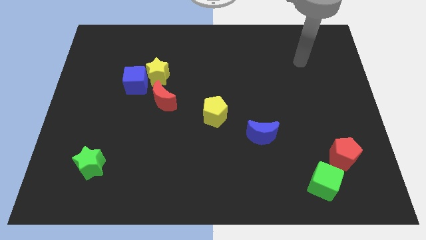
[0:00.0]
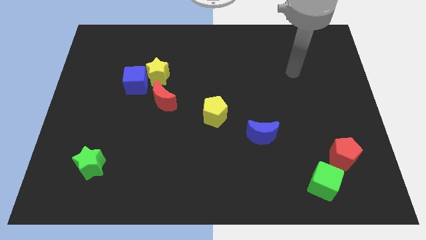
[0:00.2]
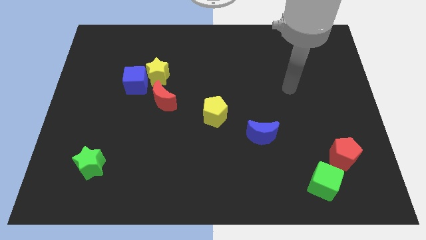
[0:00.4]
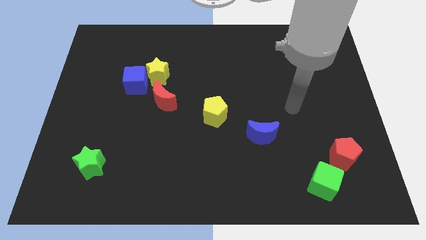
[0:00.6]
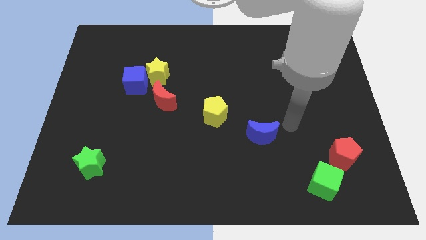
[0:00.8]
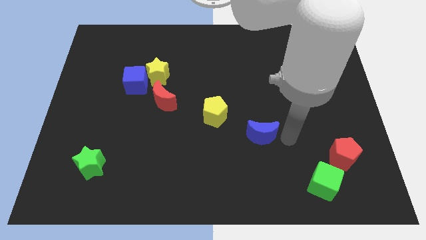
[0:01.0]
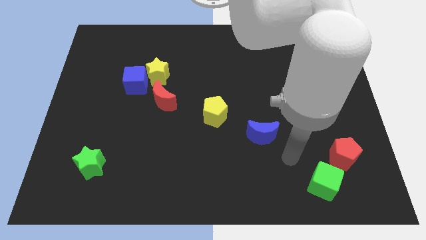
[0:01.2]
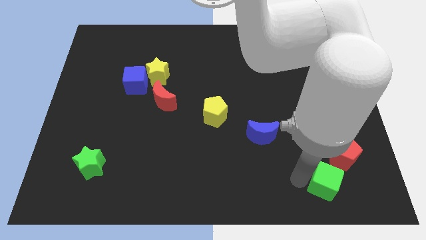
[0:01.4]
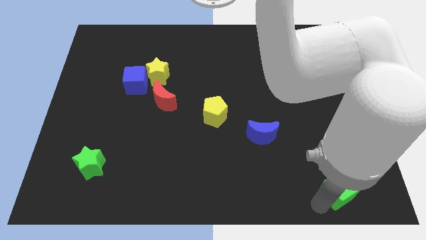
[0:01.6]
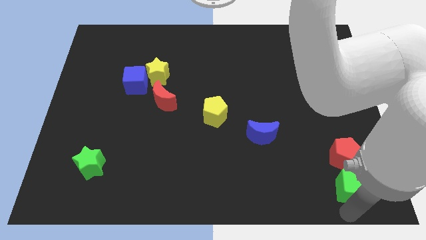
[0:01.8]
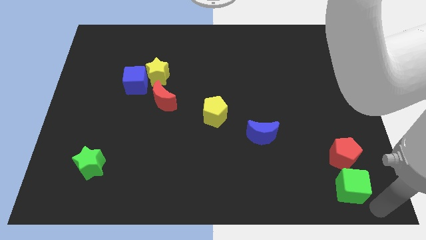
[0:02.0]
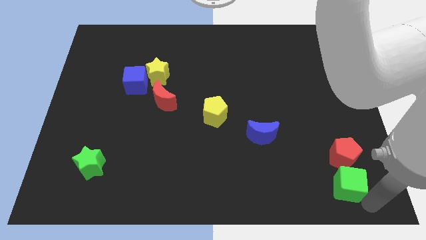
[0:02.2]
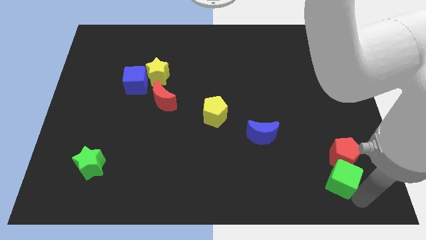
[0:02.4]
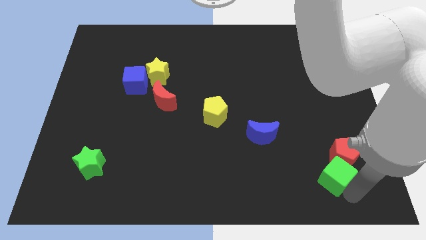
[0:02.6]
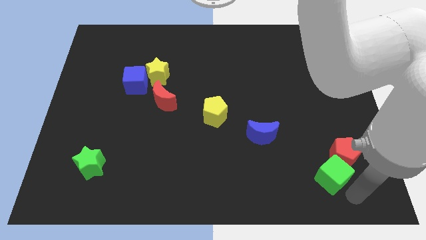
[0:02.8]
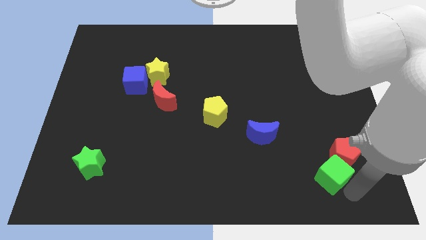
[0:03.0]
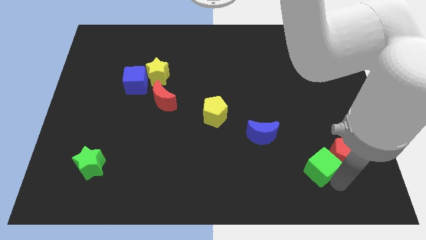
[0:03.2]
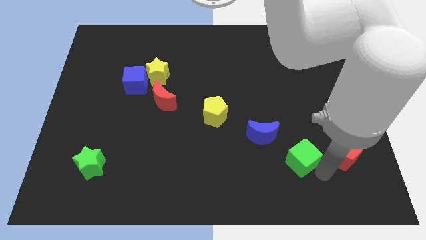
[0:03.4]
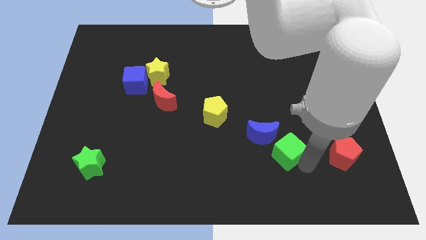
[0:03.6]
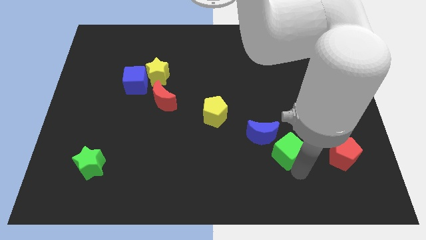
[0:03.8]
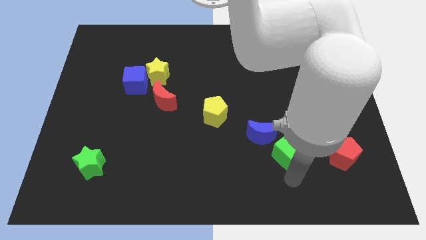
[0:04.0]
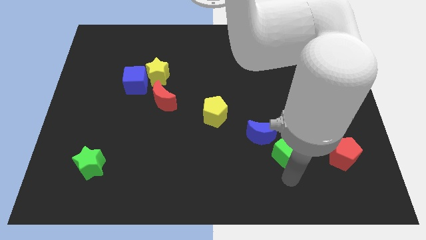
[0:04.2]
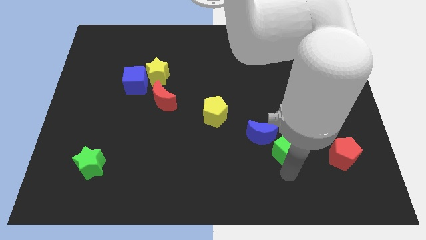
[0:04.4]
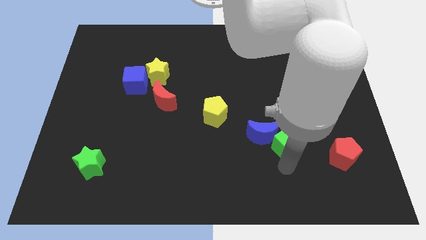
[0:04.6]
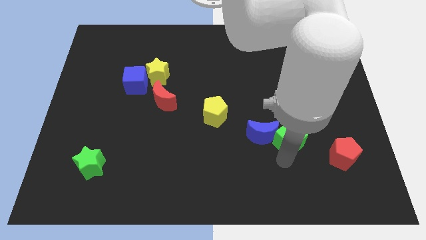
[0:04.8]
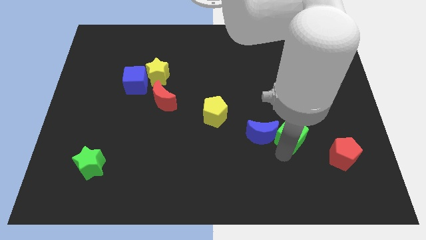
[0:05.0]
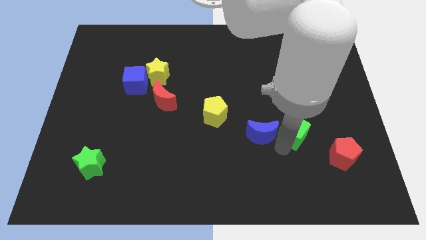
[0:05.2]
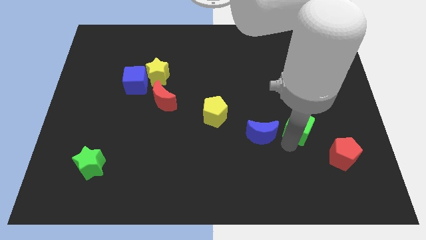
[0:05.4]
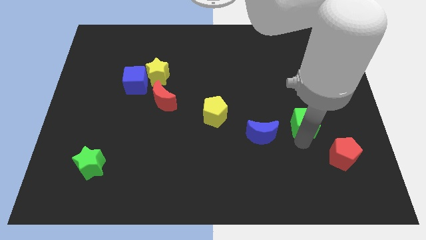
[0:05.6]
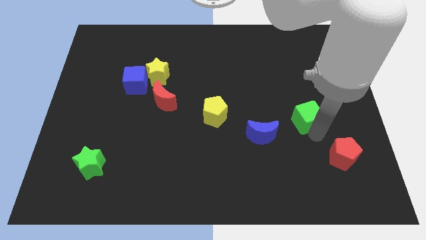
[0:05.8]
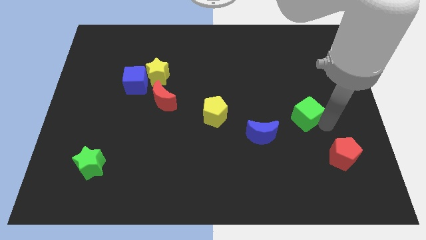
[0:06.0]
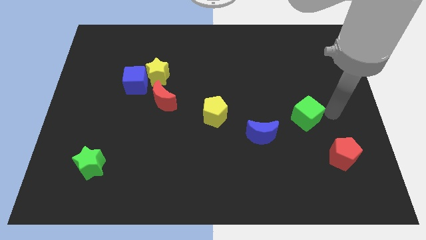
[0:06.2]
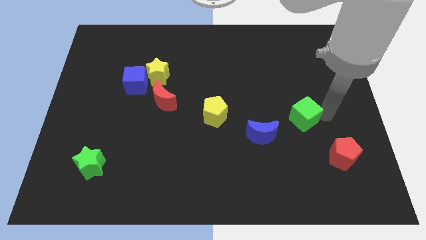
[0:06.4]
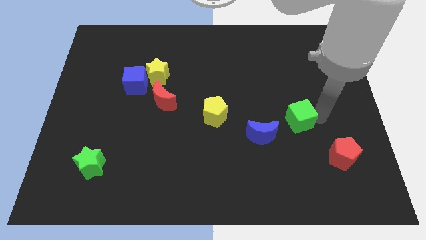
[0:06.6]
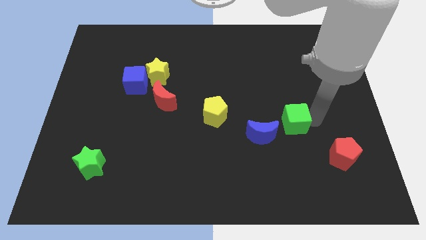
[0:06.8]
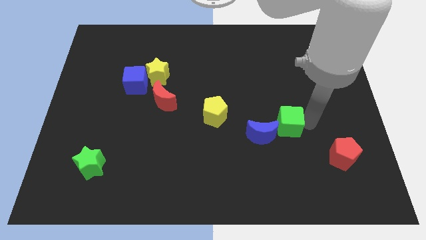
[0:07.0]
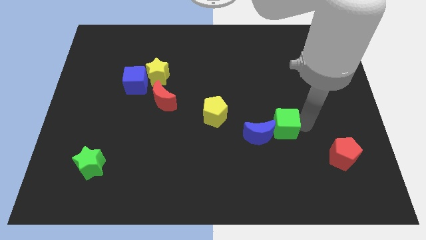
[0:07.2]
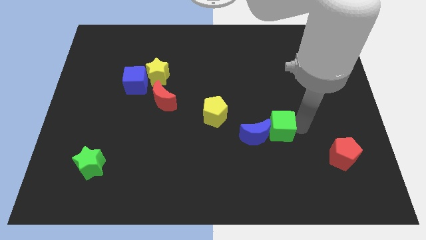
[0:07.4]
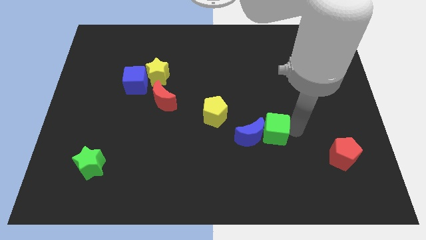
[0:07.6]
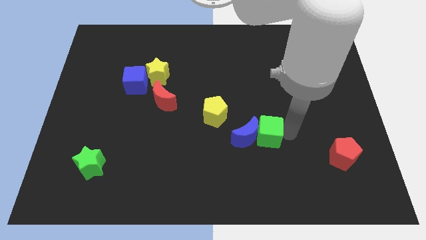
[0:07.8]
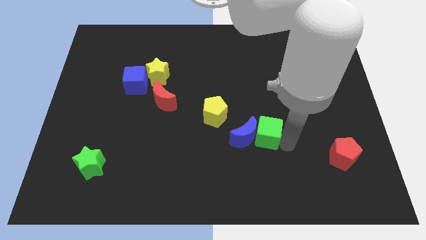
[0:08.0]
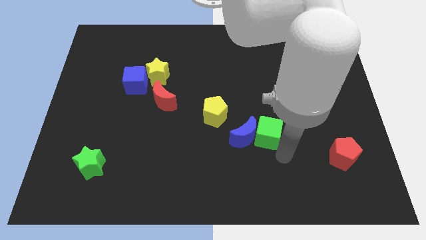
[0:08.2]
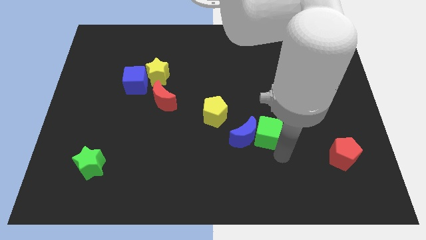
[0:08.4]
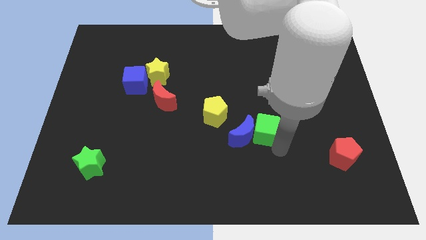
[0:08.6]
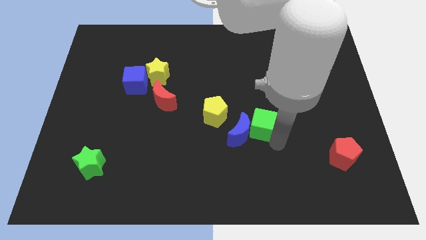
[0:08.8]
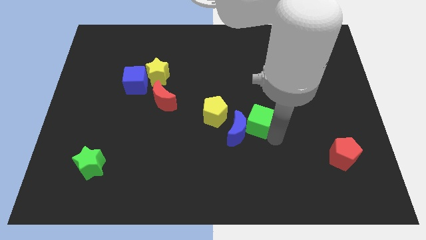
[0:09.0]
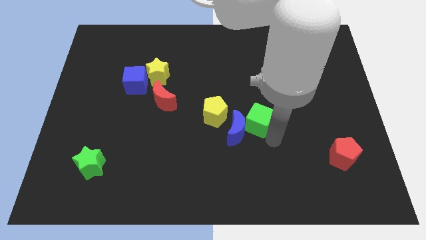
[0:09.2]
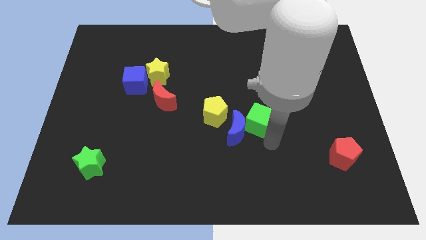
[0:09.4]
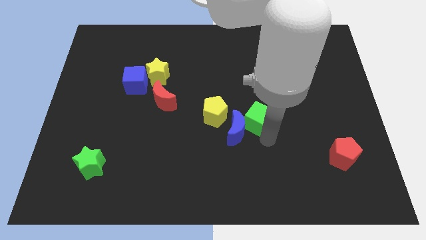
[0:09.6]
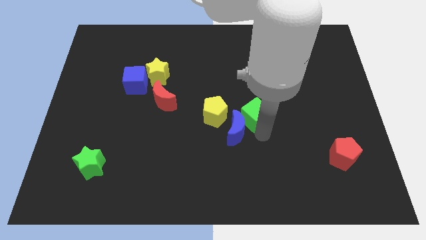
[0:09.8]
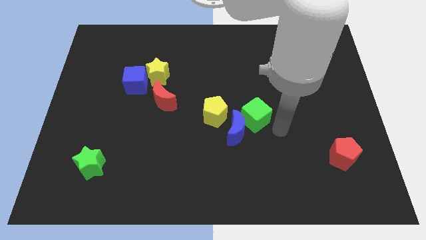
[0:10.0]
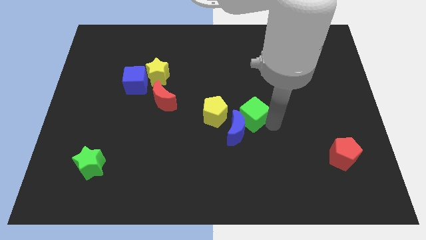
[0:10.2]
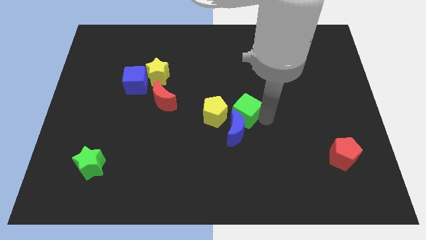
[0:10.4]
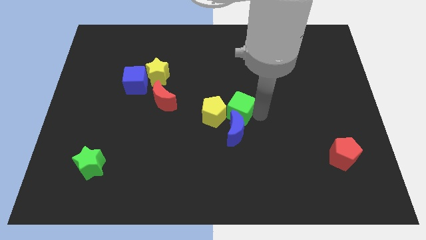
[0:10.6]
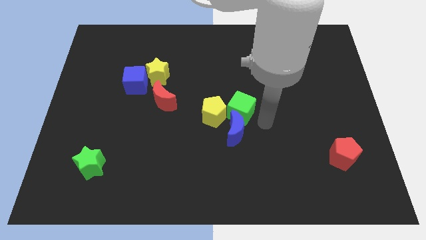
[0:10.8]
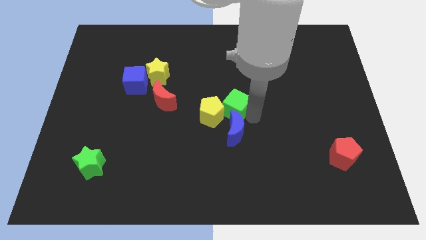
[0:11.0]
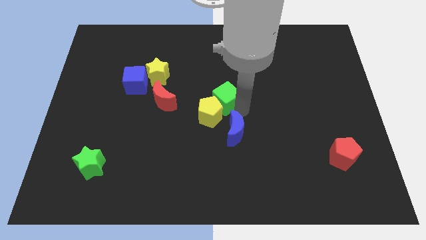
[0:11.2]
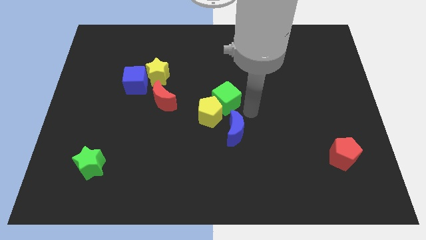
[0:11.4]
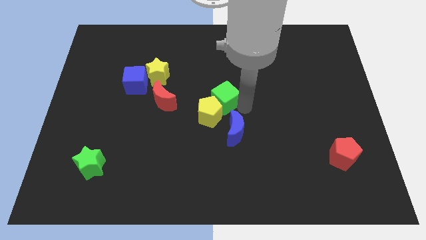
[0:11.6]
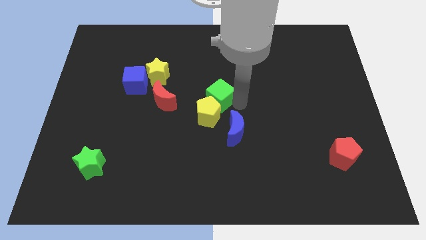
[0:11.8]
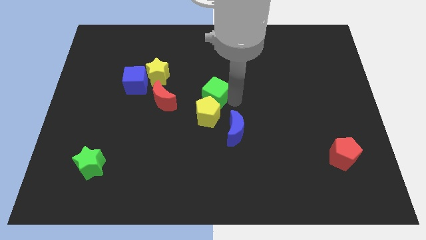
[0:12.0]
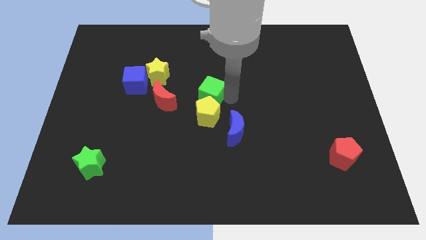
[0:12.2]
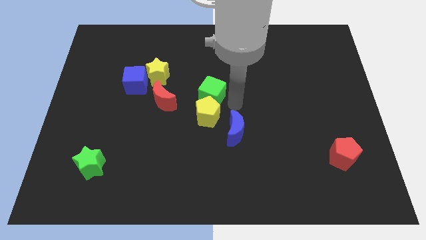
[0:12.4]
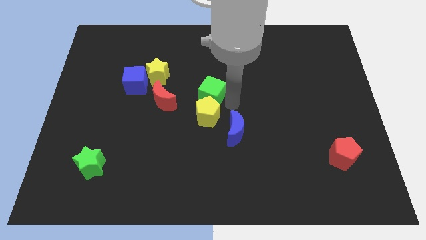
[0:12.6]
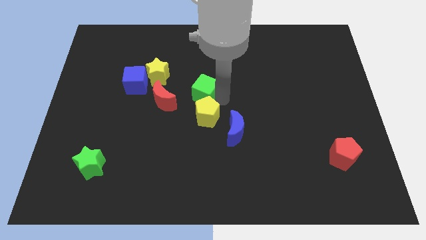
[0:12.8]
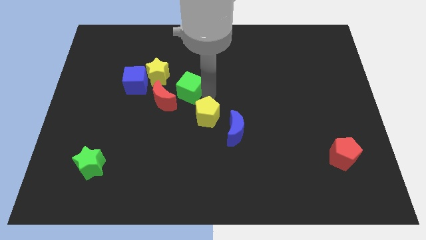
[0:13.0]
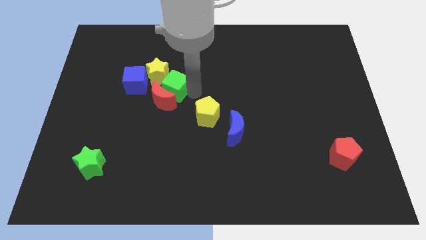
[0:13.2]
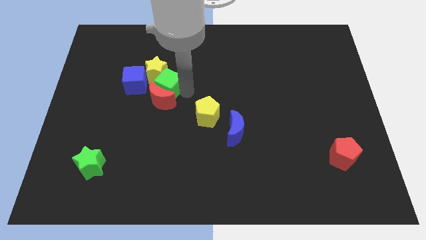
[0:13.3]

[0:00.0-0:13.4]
push the green cube close to the yellow star
